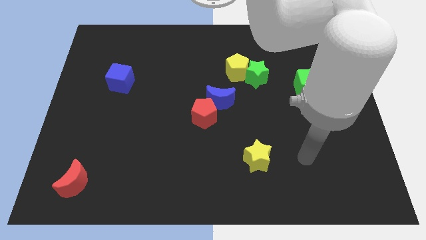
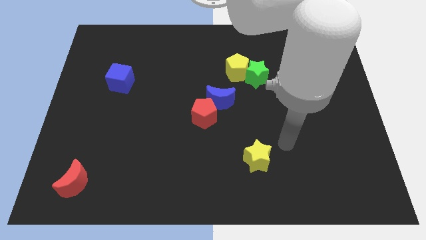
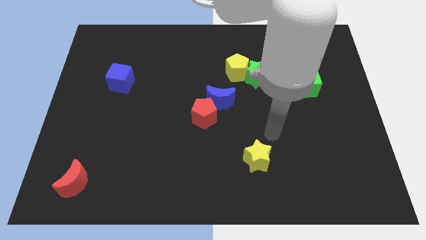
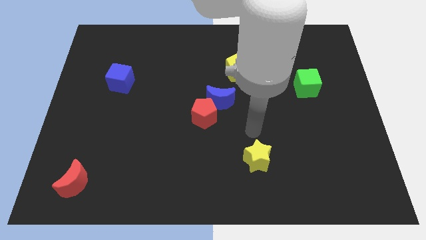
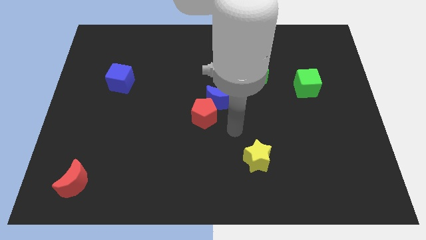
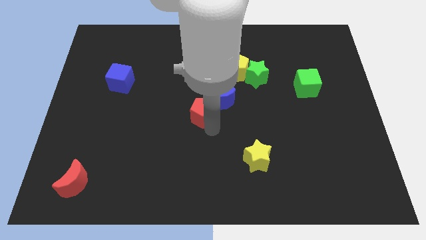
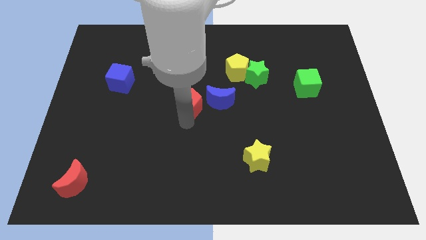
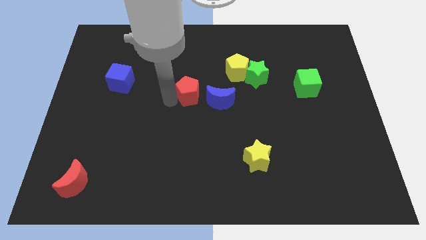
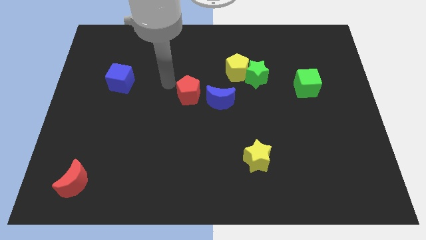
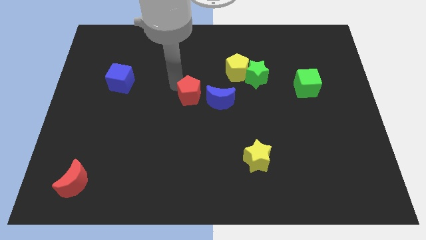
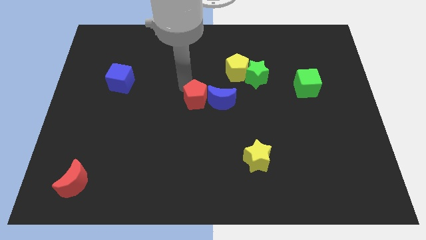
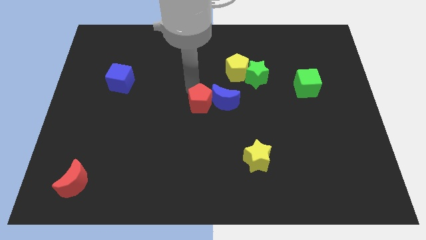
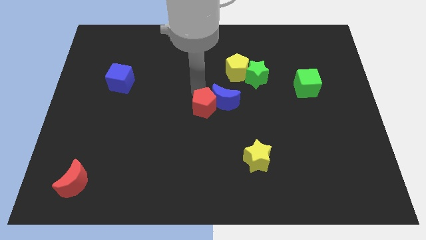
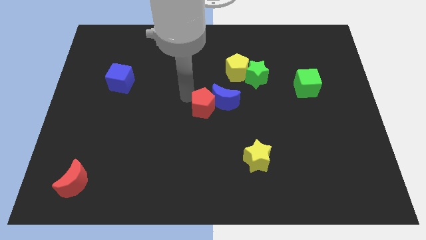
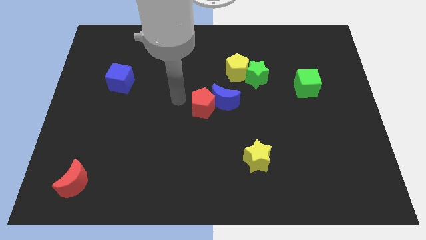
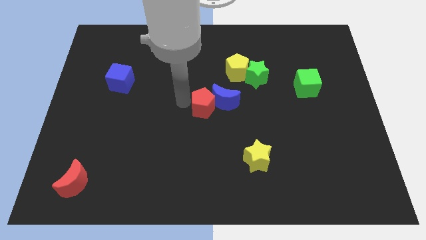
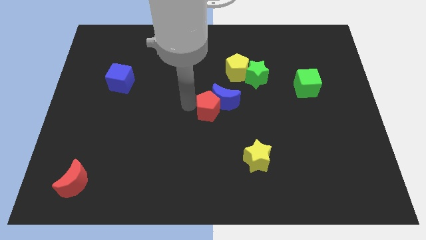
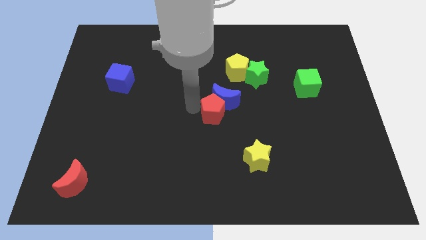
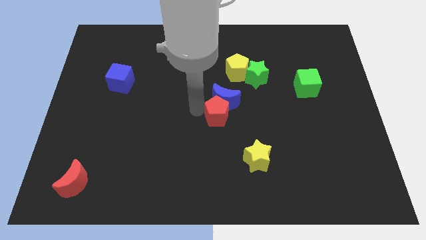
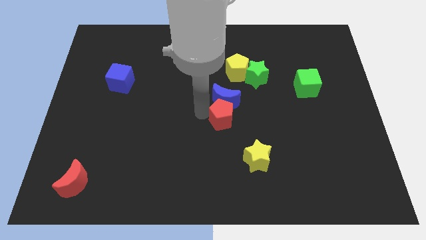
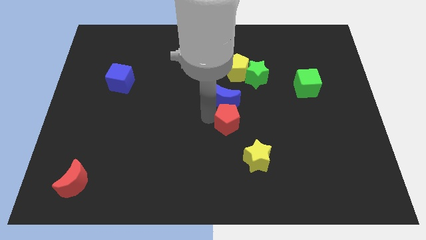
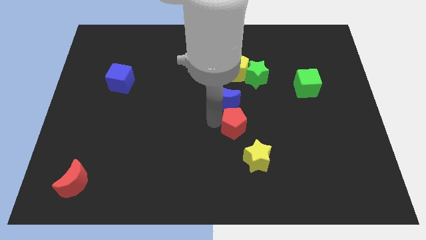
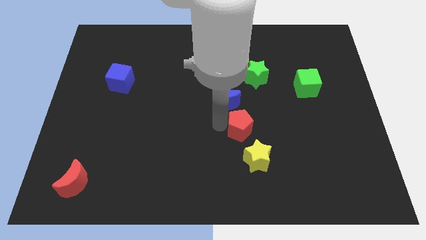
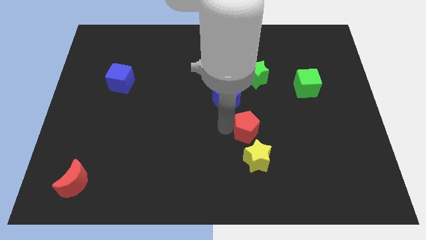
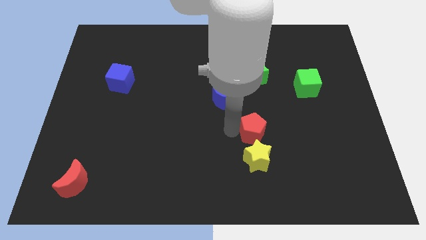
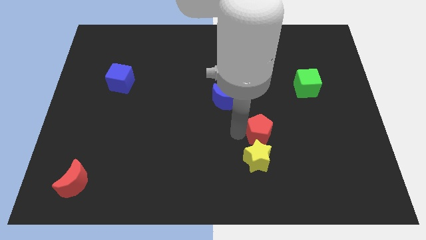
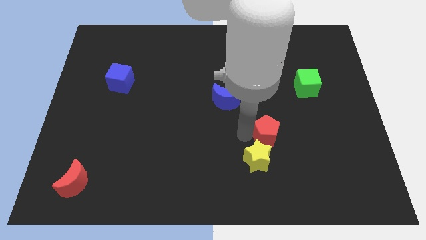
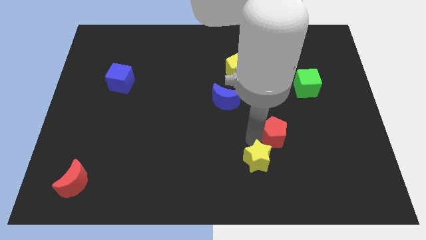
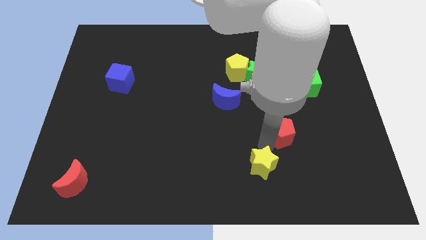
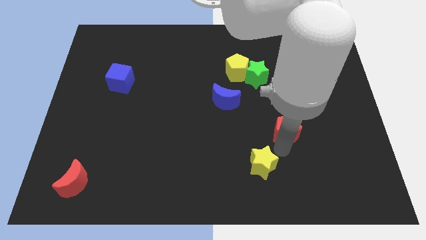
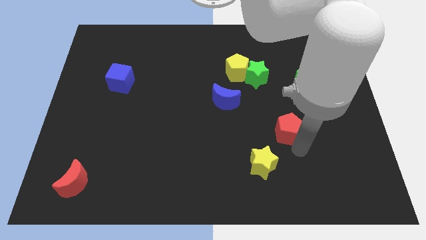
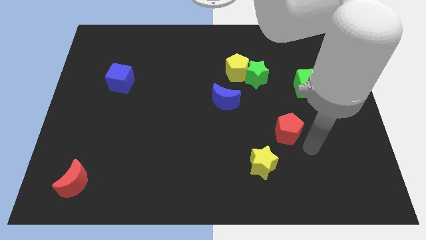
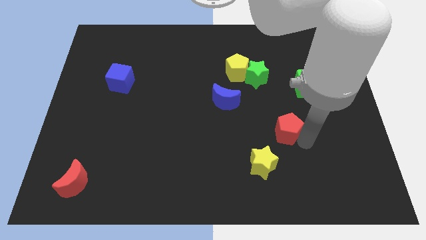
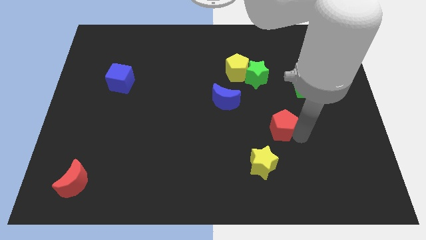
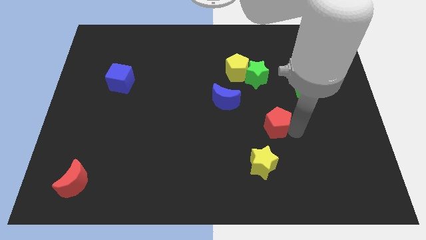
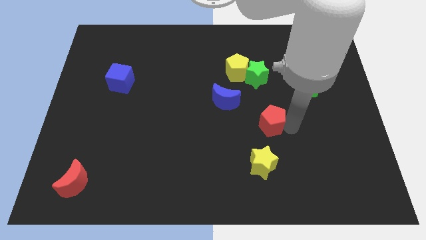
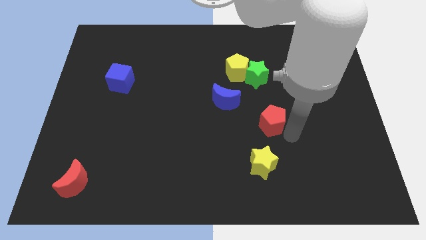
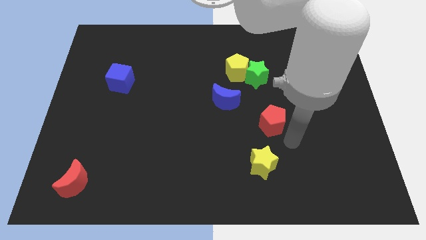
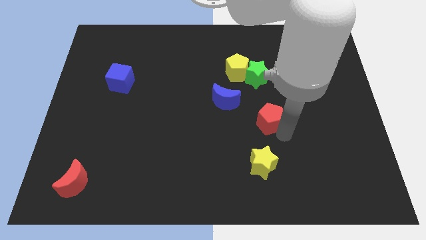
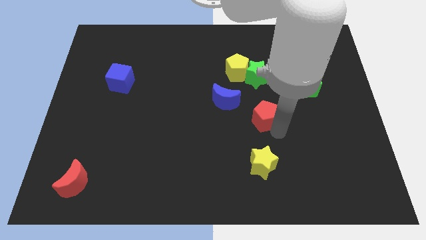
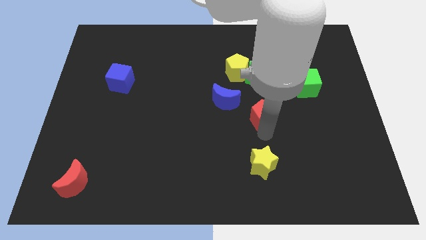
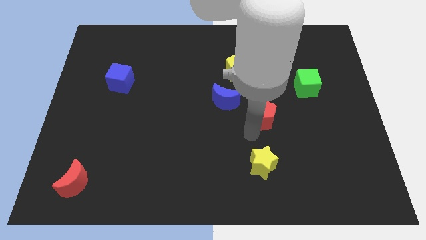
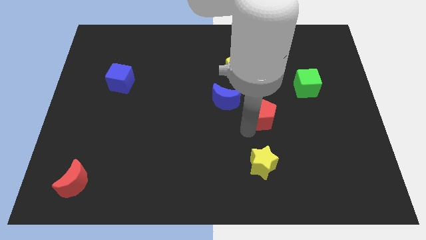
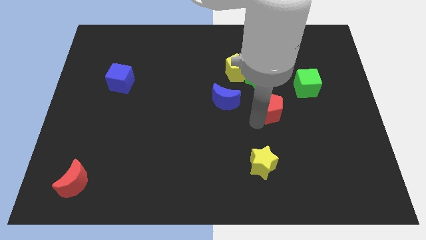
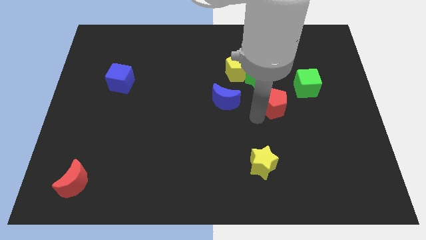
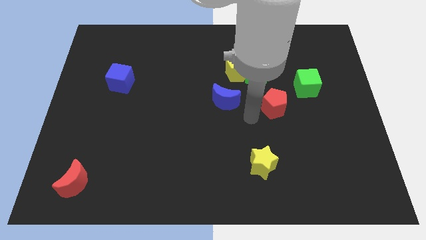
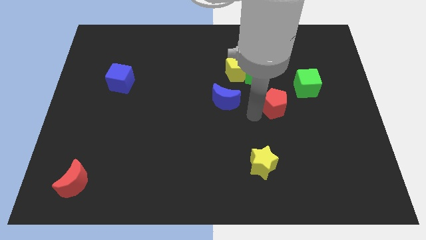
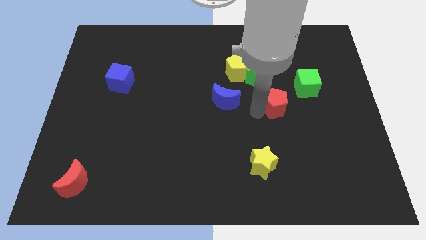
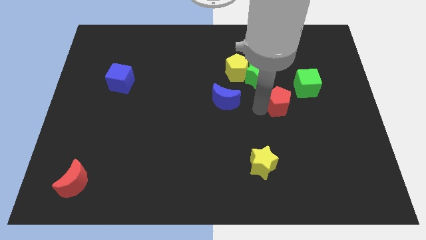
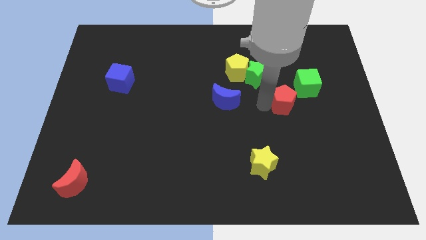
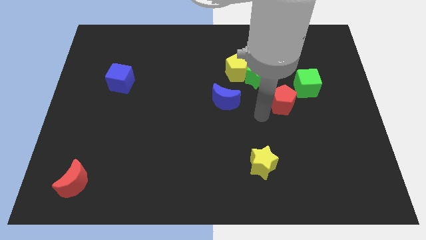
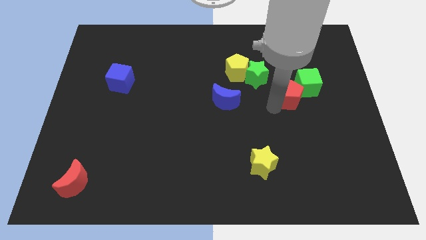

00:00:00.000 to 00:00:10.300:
move the red pentagon close to the green cube

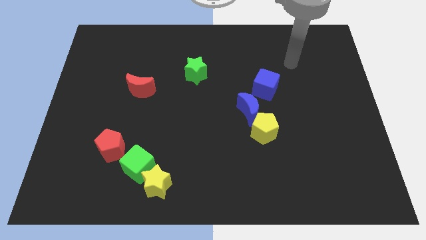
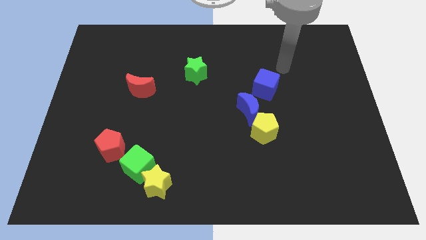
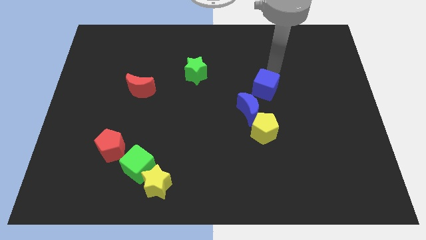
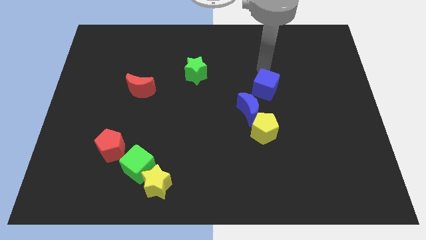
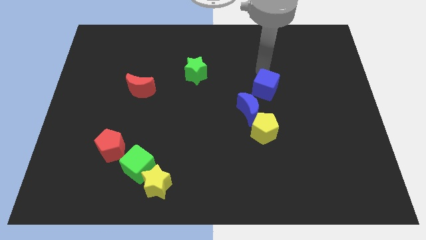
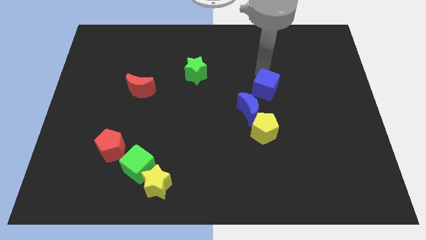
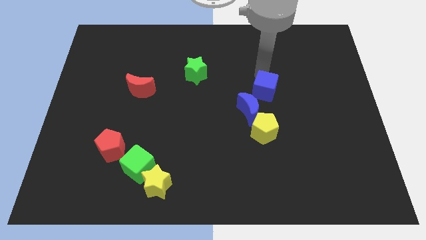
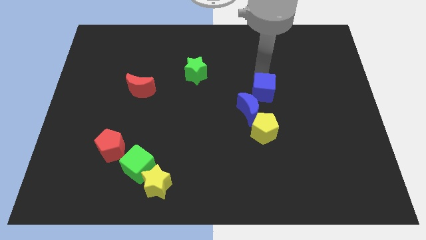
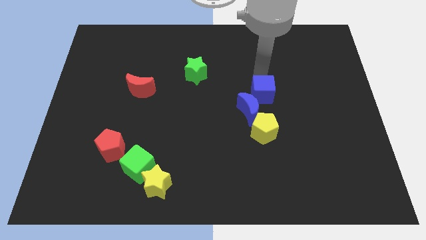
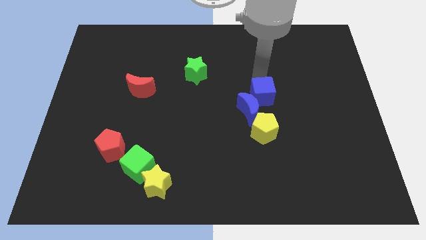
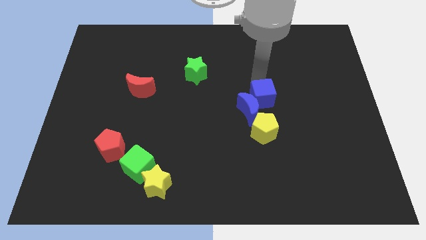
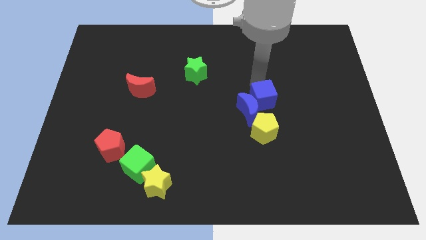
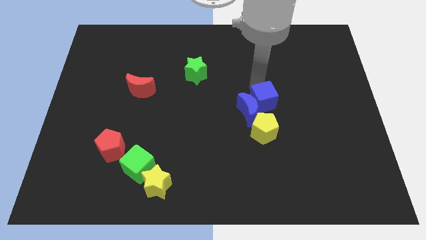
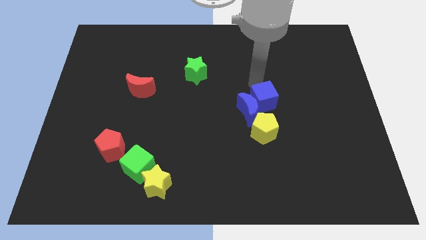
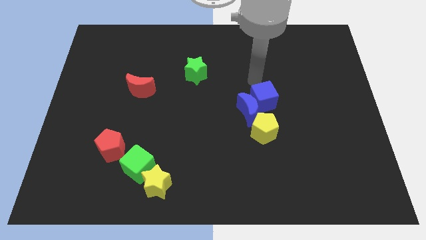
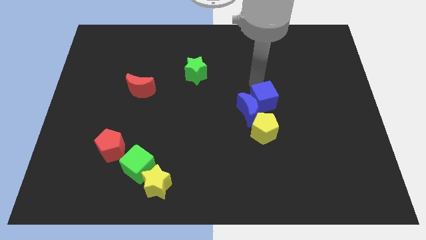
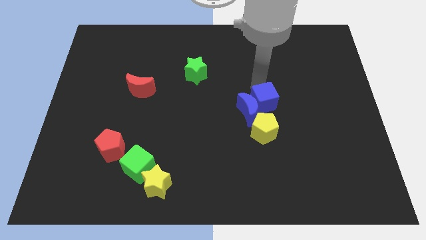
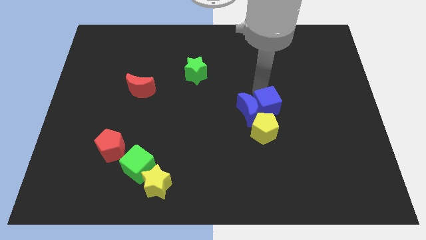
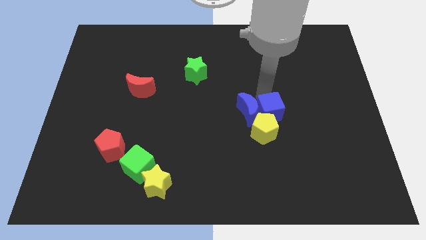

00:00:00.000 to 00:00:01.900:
slide the blue cube to the yellow pentagon

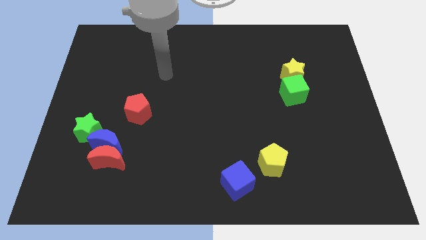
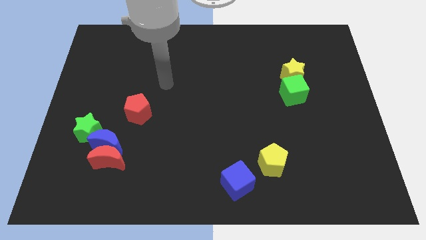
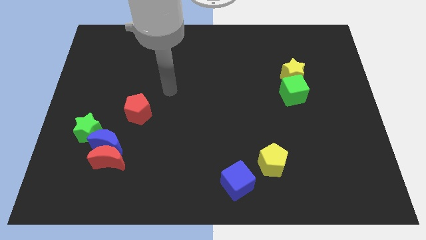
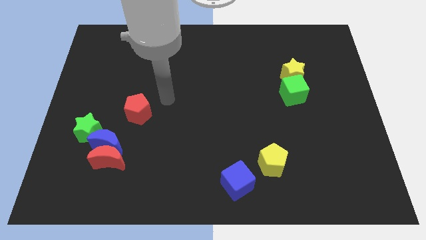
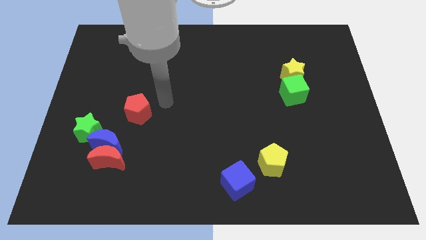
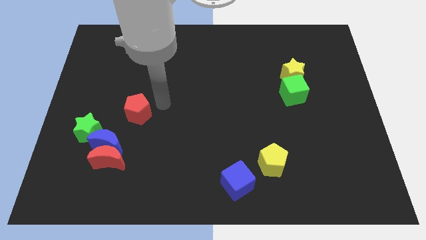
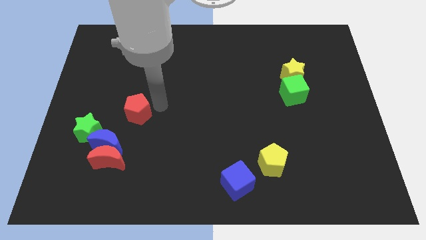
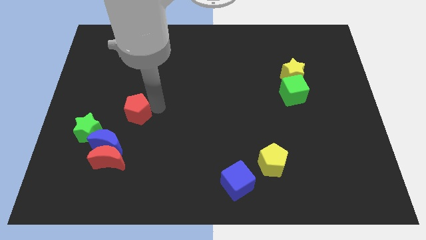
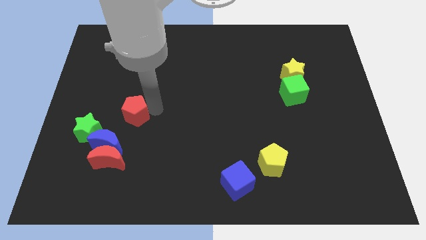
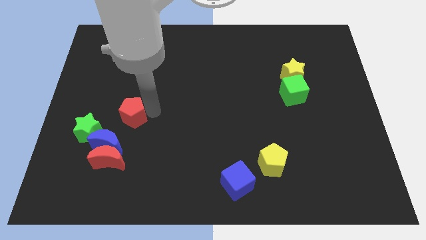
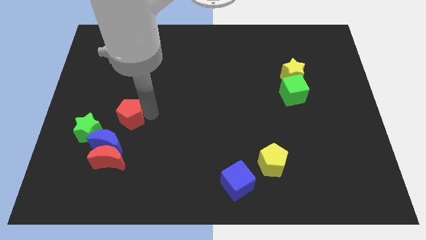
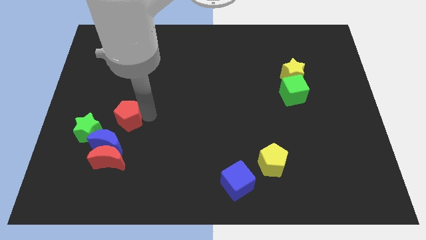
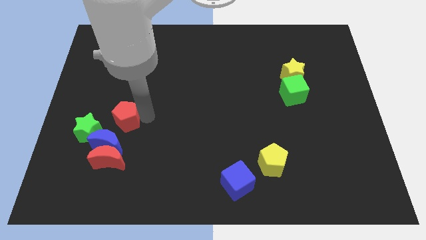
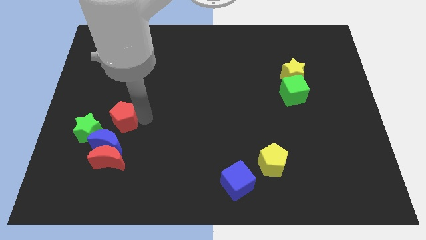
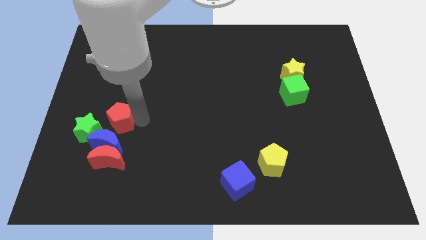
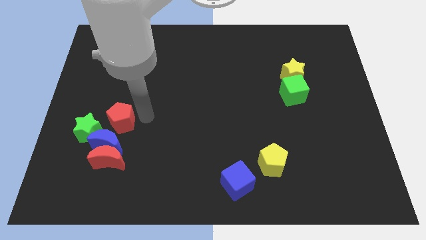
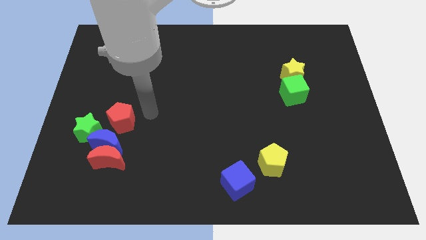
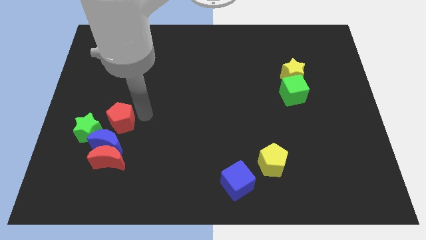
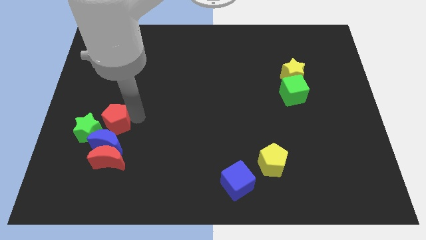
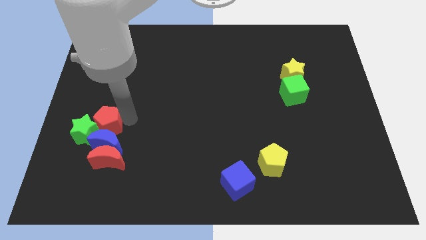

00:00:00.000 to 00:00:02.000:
push the red pentagon next to the green star
